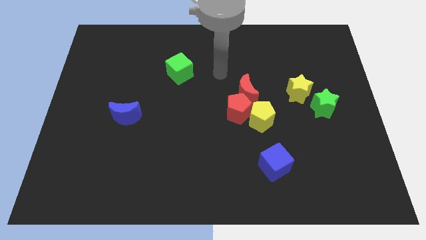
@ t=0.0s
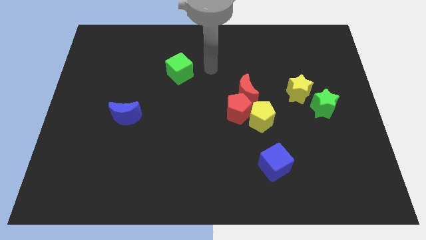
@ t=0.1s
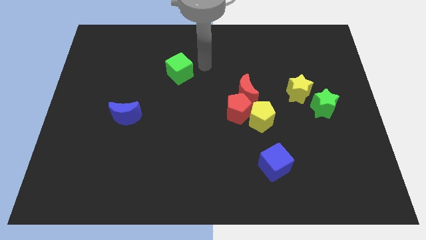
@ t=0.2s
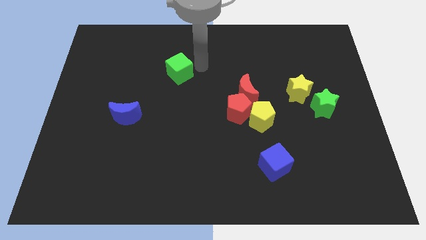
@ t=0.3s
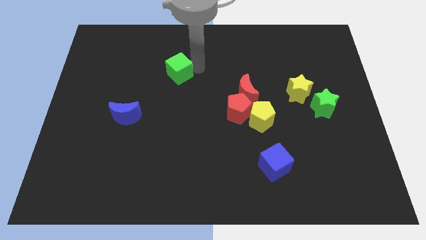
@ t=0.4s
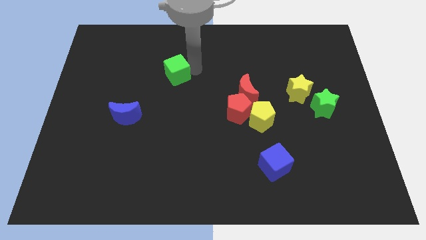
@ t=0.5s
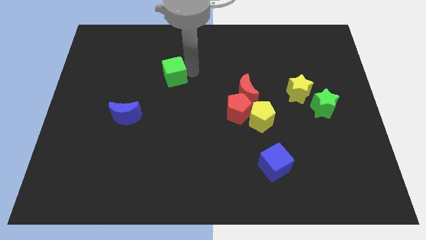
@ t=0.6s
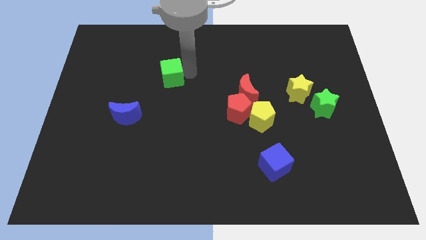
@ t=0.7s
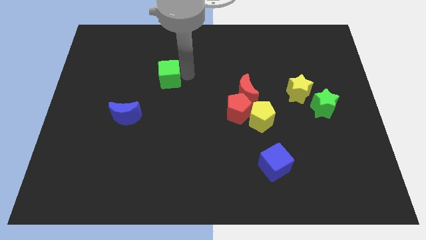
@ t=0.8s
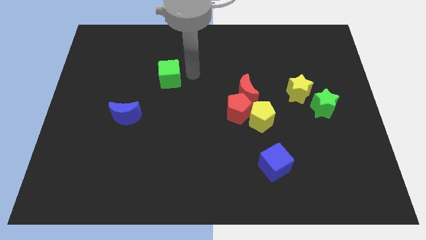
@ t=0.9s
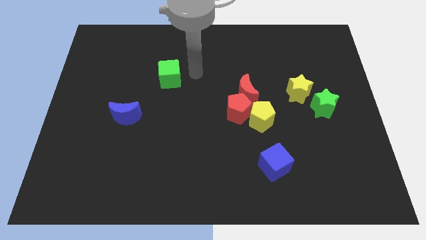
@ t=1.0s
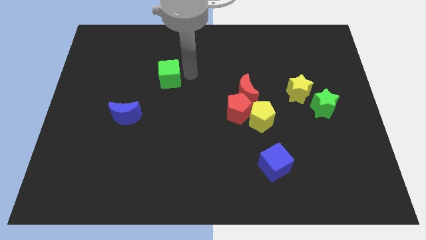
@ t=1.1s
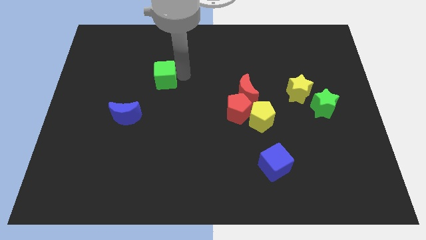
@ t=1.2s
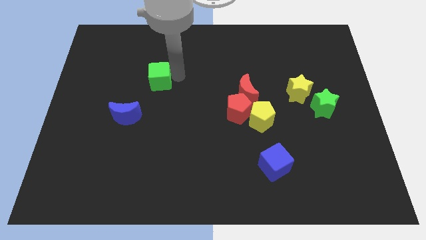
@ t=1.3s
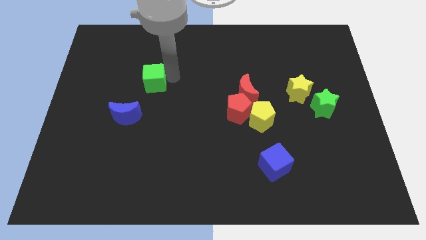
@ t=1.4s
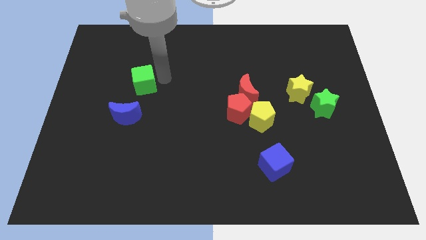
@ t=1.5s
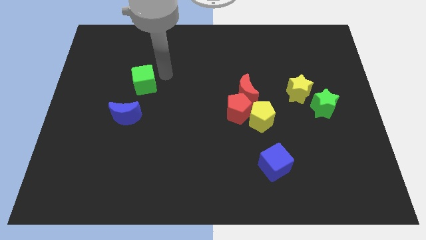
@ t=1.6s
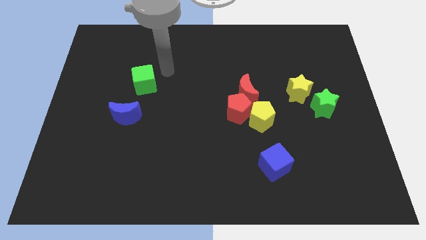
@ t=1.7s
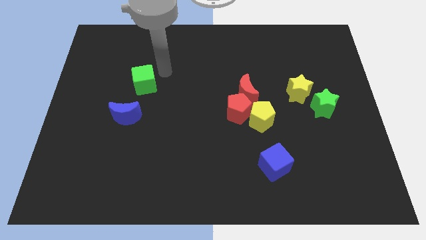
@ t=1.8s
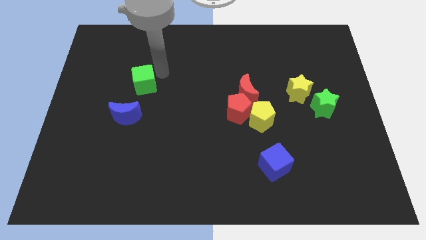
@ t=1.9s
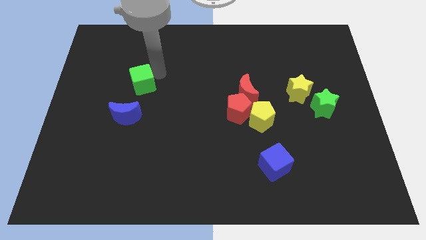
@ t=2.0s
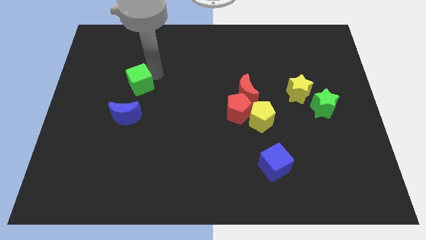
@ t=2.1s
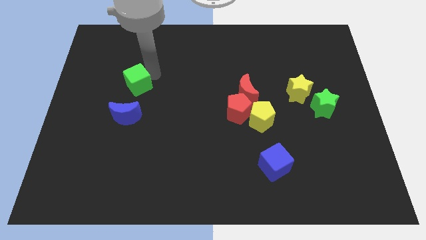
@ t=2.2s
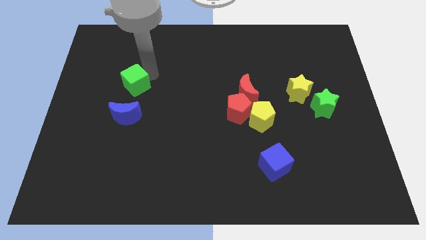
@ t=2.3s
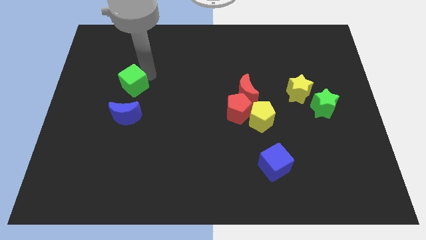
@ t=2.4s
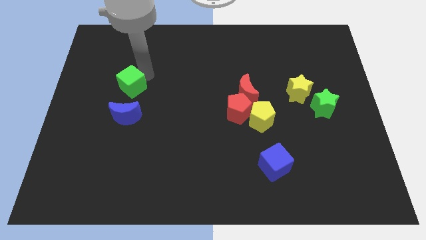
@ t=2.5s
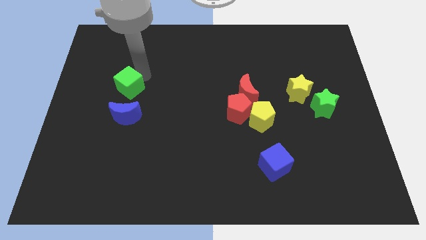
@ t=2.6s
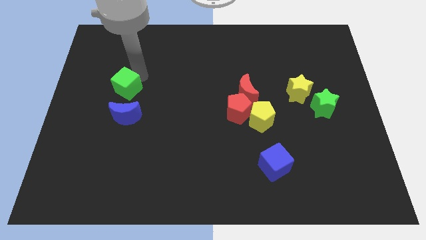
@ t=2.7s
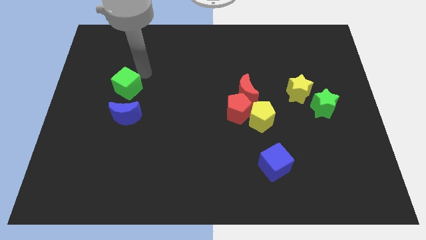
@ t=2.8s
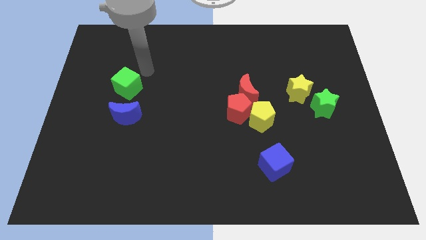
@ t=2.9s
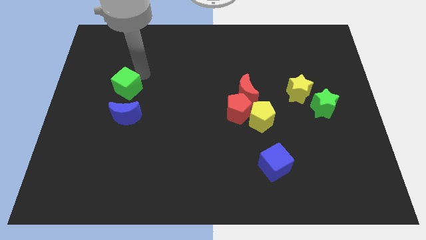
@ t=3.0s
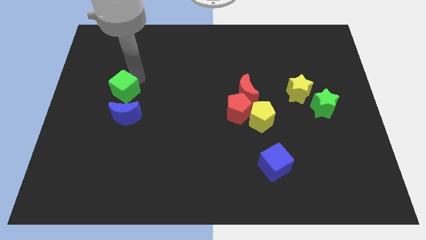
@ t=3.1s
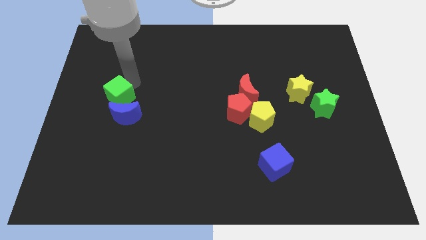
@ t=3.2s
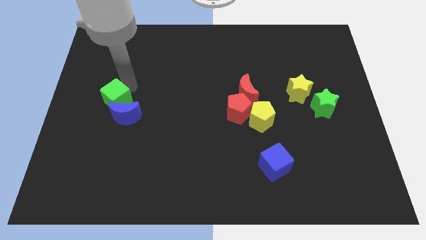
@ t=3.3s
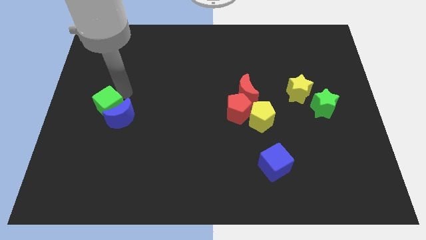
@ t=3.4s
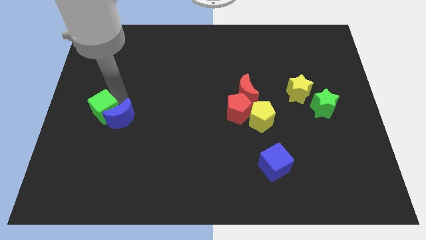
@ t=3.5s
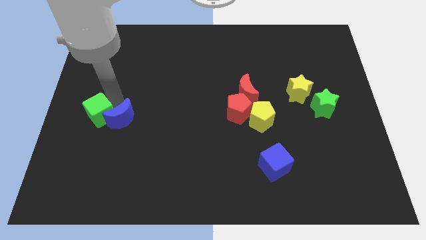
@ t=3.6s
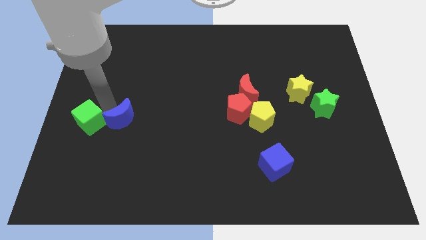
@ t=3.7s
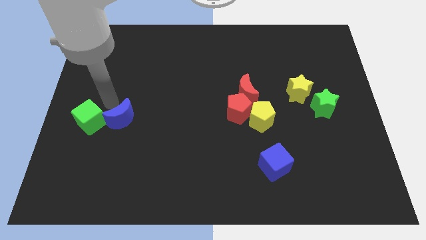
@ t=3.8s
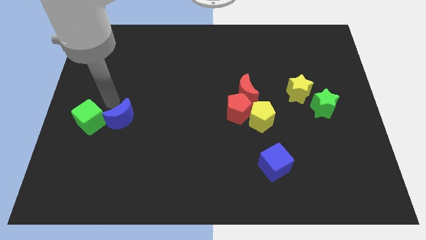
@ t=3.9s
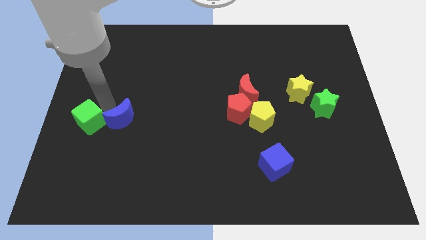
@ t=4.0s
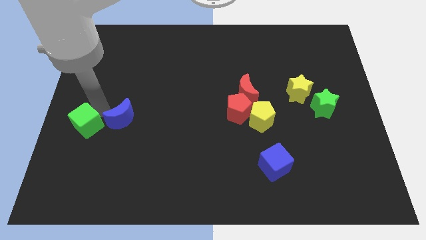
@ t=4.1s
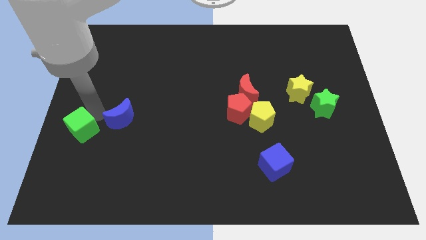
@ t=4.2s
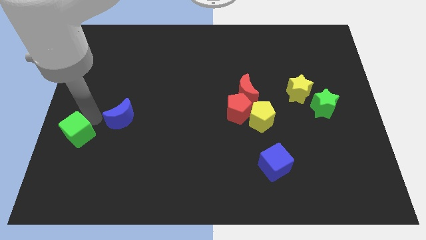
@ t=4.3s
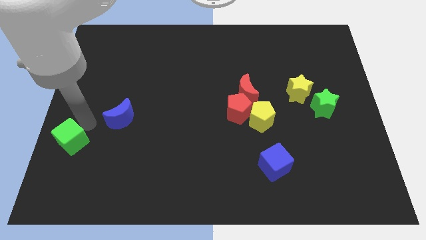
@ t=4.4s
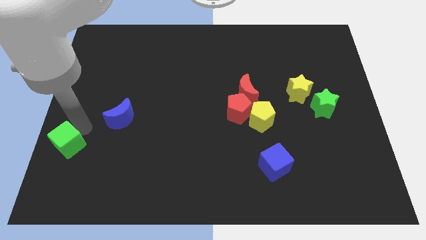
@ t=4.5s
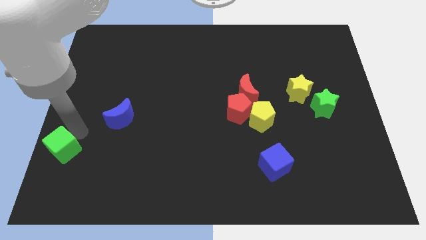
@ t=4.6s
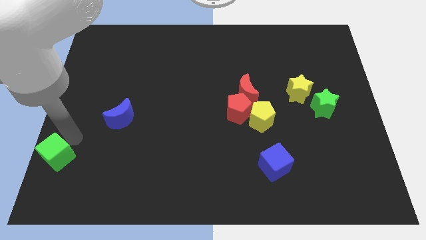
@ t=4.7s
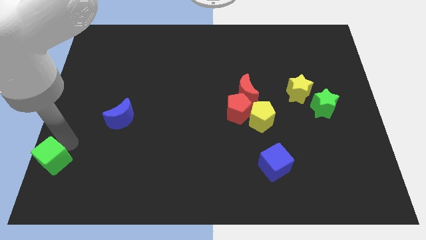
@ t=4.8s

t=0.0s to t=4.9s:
slide the green cube to the bottom left

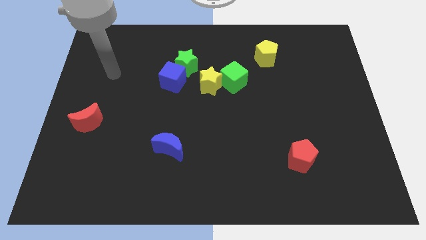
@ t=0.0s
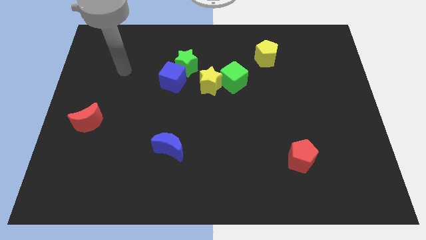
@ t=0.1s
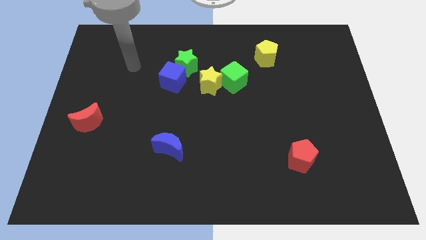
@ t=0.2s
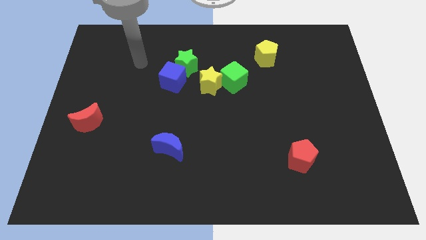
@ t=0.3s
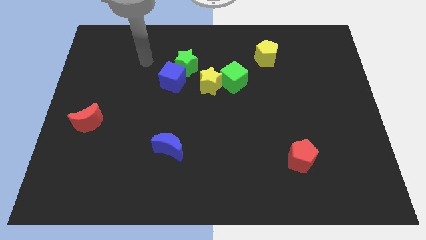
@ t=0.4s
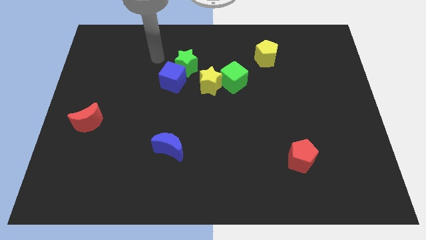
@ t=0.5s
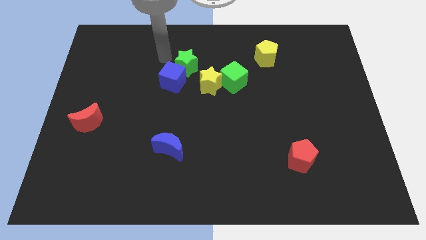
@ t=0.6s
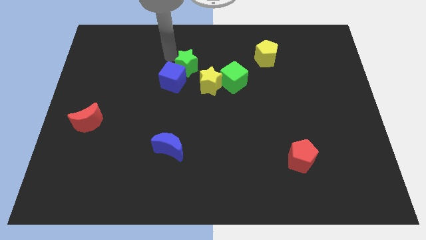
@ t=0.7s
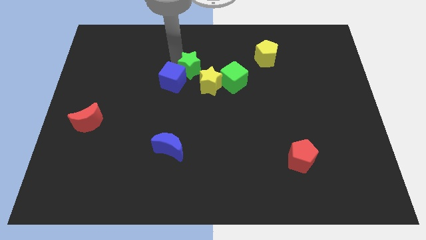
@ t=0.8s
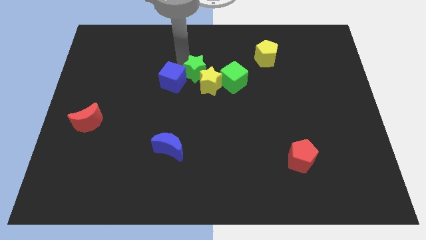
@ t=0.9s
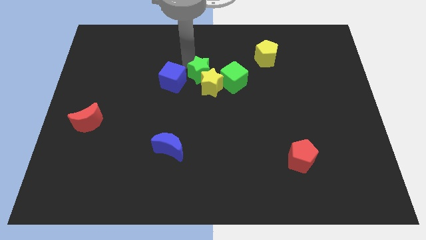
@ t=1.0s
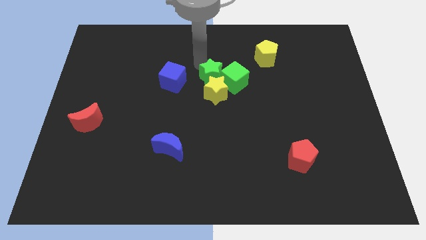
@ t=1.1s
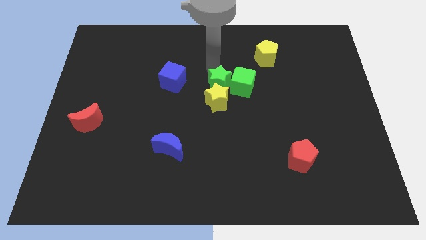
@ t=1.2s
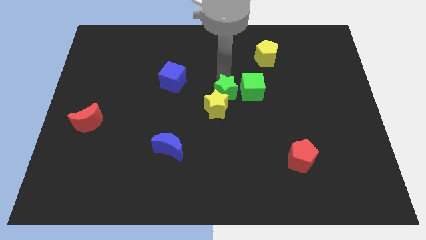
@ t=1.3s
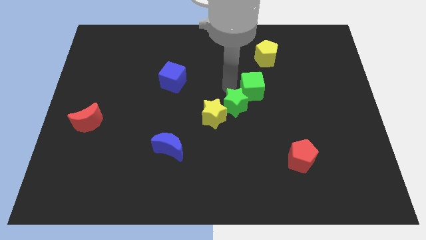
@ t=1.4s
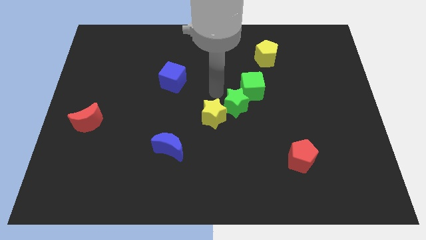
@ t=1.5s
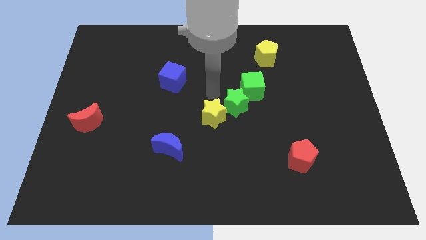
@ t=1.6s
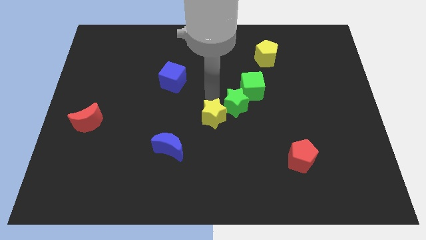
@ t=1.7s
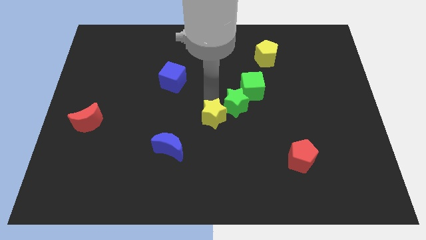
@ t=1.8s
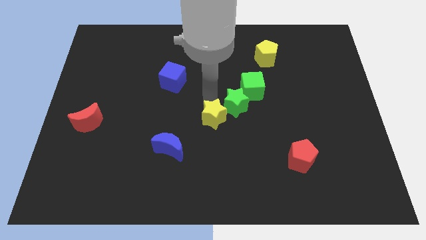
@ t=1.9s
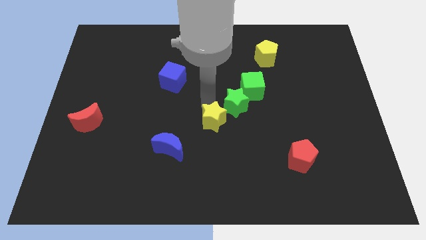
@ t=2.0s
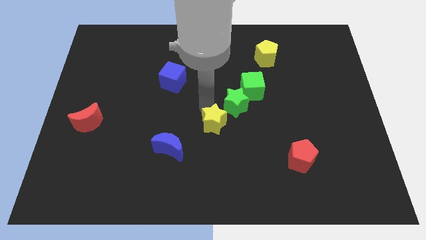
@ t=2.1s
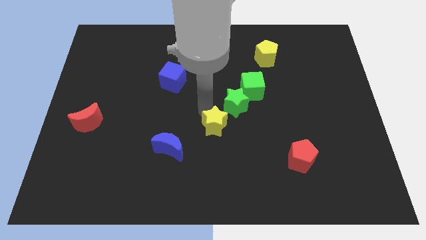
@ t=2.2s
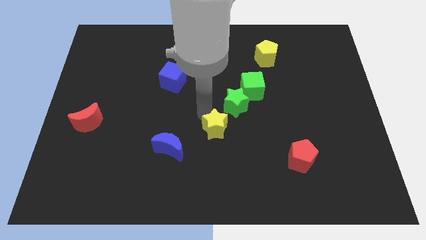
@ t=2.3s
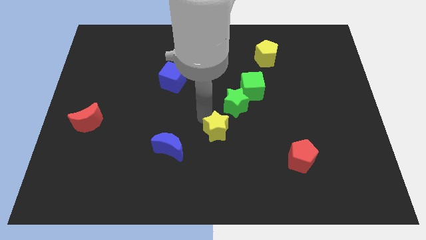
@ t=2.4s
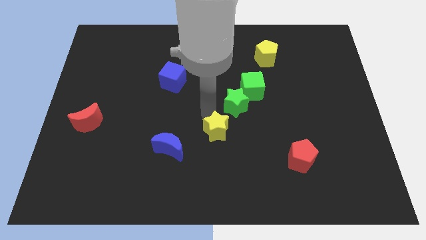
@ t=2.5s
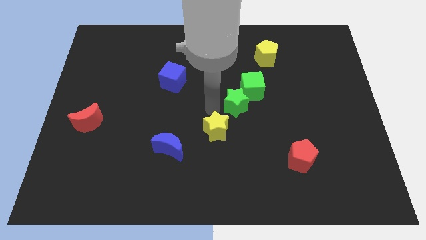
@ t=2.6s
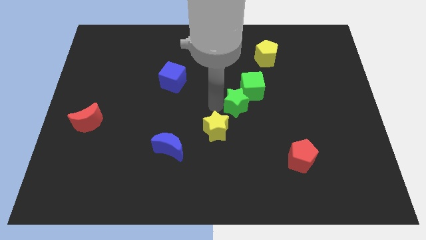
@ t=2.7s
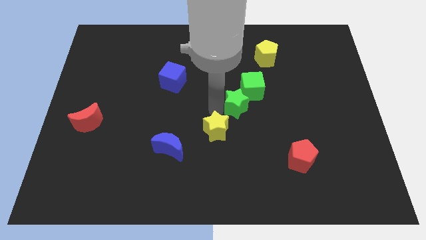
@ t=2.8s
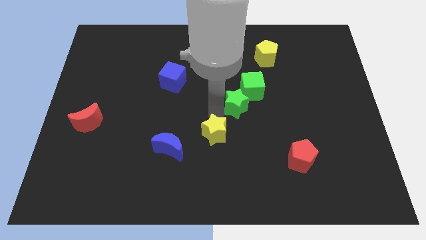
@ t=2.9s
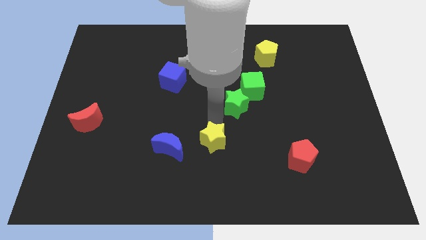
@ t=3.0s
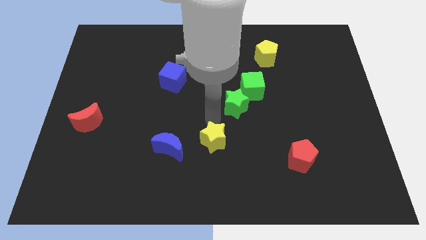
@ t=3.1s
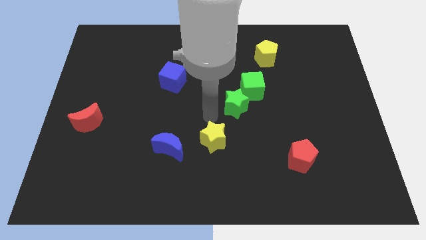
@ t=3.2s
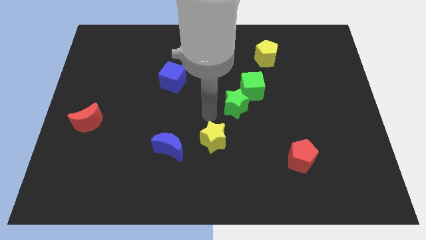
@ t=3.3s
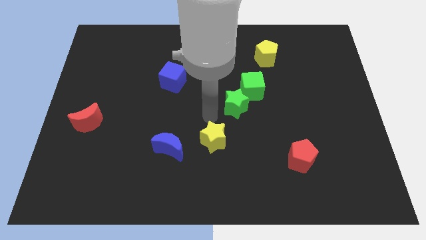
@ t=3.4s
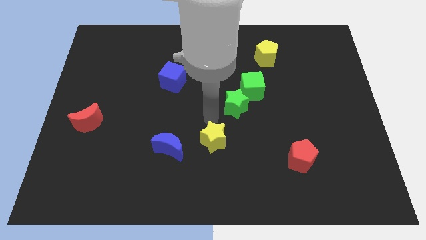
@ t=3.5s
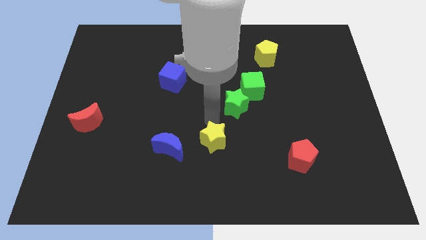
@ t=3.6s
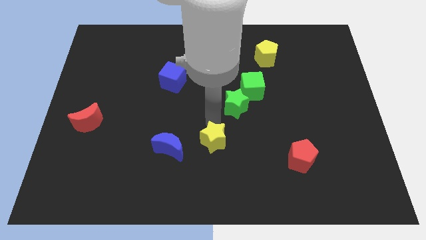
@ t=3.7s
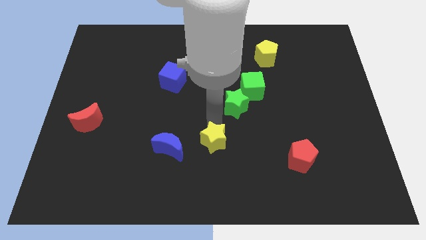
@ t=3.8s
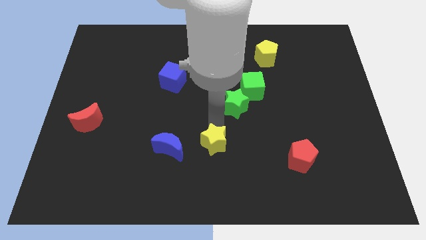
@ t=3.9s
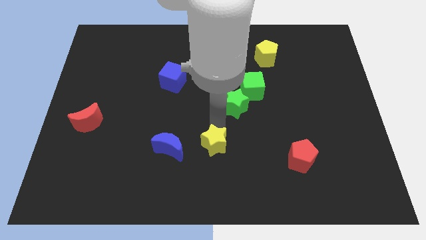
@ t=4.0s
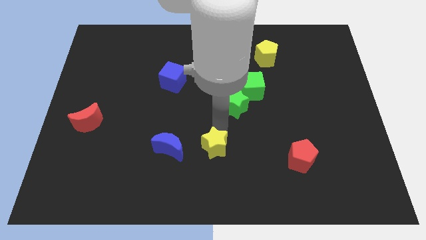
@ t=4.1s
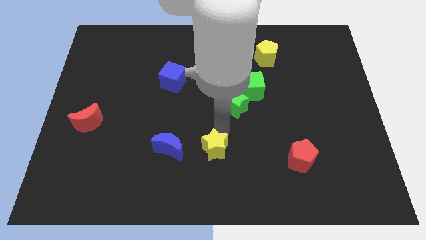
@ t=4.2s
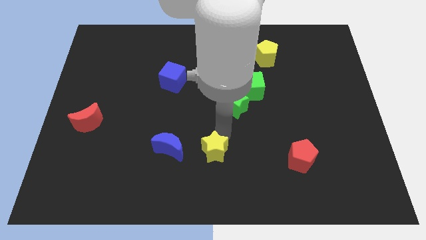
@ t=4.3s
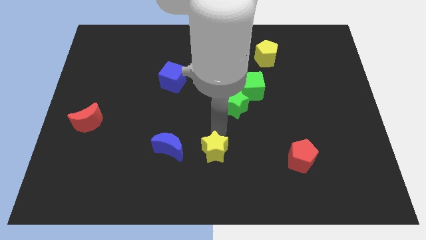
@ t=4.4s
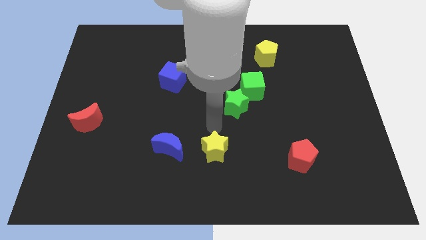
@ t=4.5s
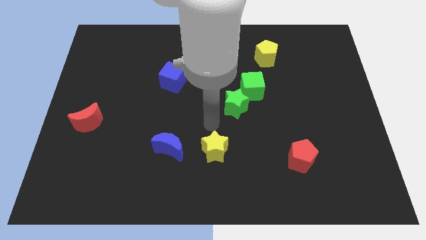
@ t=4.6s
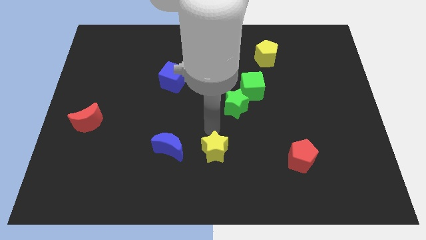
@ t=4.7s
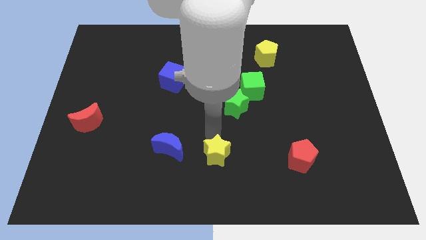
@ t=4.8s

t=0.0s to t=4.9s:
put the yellow star to the bottom side
